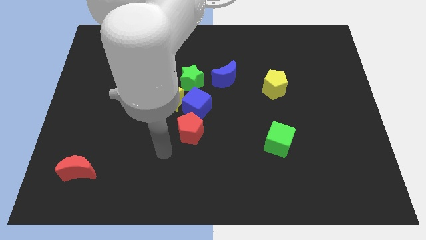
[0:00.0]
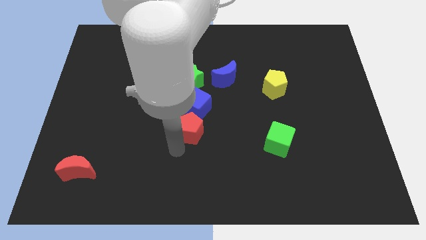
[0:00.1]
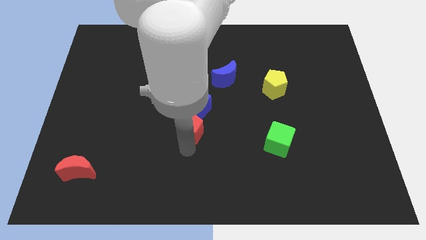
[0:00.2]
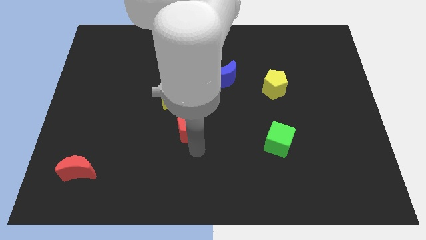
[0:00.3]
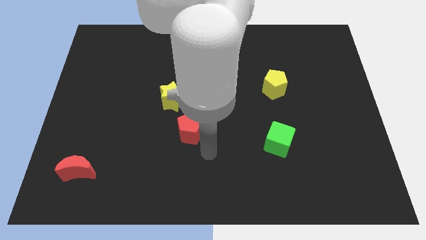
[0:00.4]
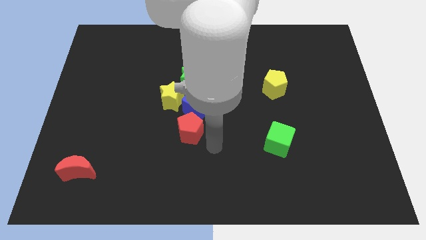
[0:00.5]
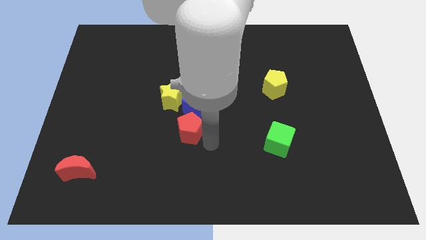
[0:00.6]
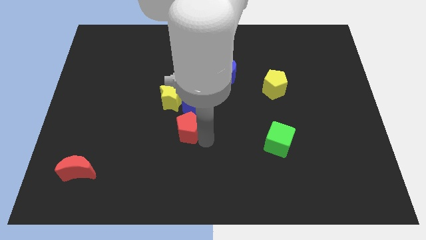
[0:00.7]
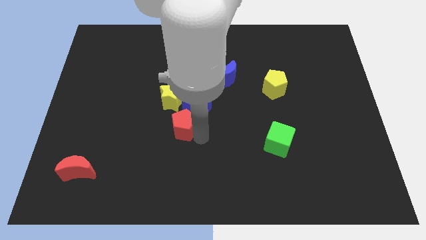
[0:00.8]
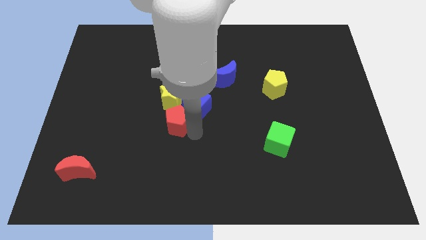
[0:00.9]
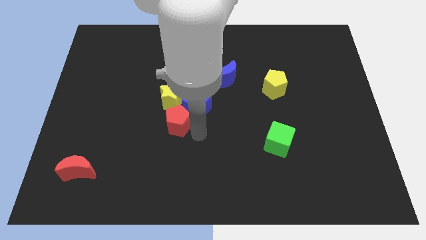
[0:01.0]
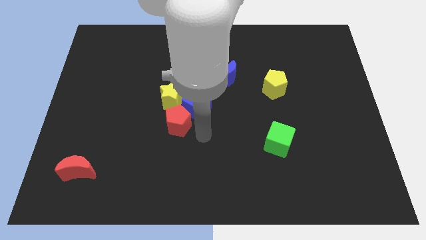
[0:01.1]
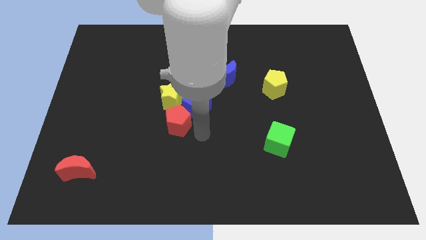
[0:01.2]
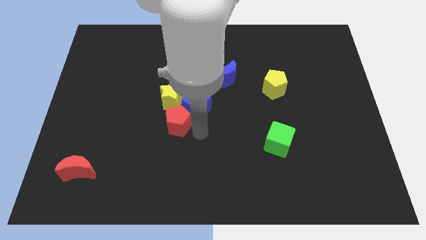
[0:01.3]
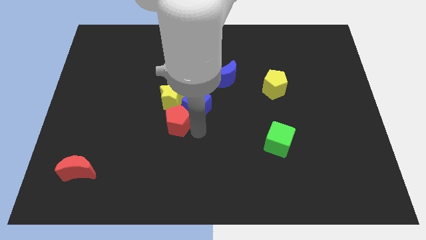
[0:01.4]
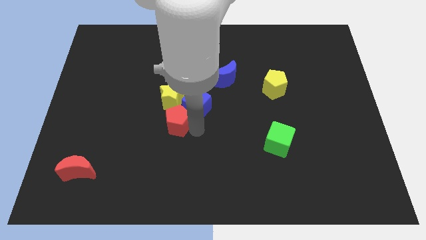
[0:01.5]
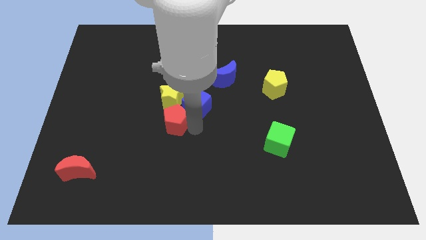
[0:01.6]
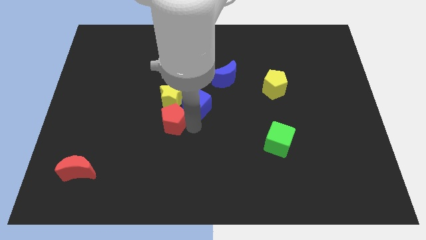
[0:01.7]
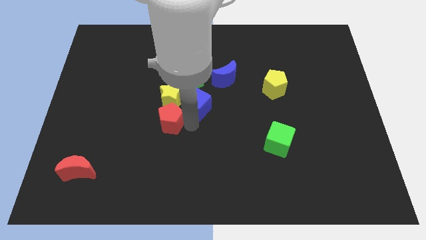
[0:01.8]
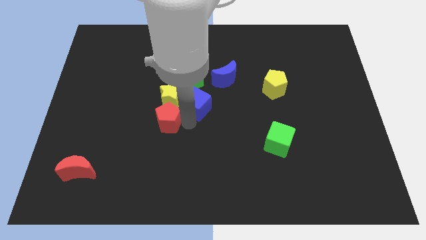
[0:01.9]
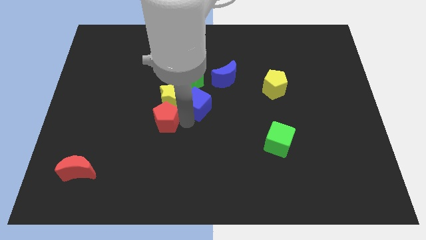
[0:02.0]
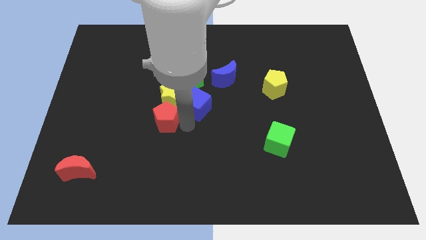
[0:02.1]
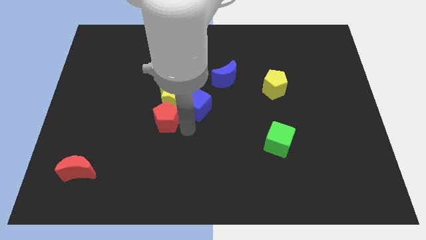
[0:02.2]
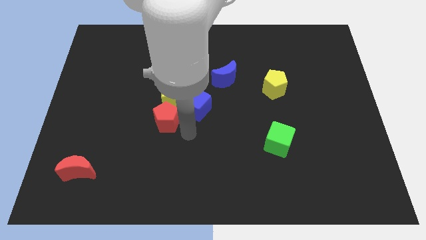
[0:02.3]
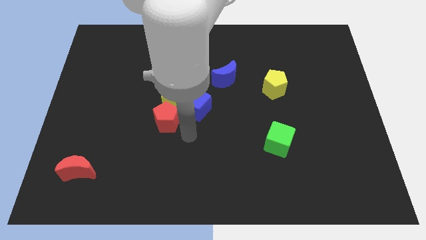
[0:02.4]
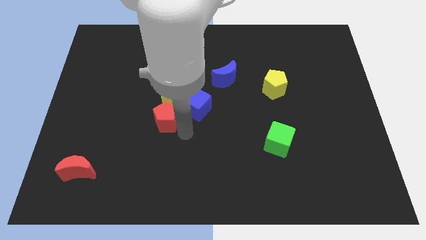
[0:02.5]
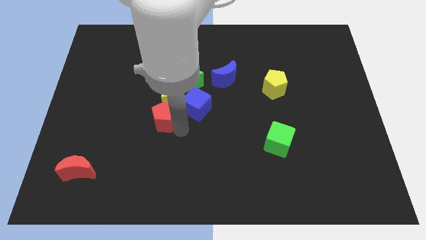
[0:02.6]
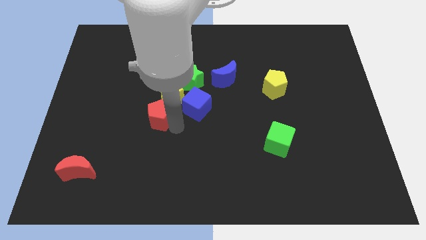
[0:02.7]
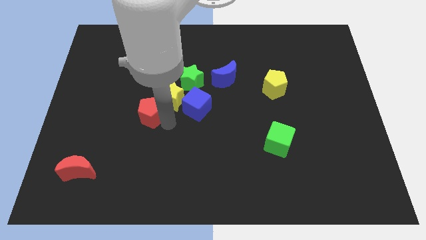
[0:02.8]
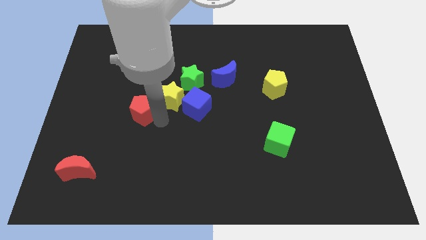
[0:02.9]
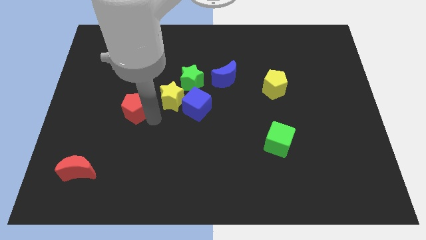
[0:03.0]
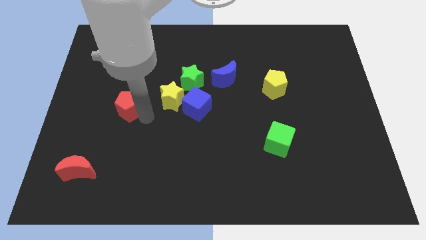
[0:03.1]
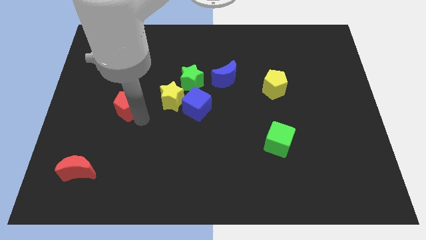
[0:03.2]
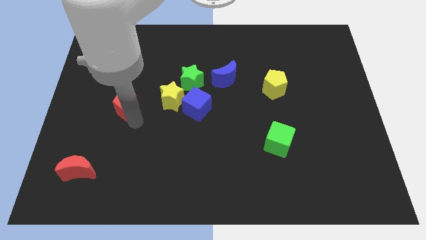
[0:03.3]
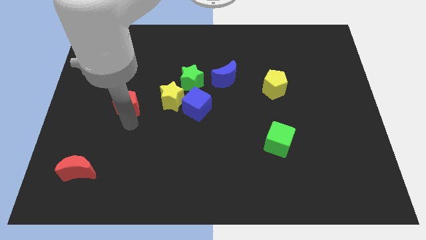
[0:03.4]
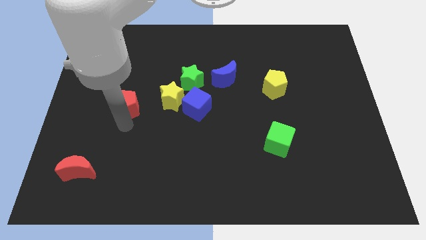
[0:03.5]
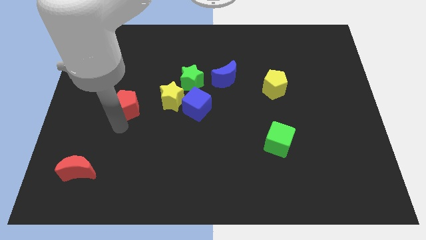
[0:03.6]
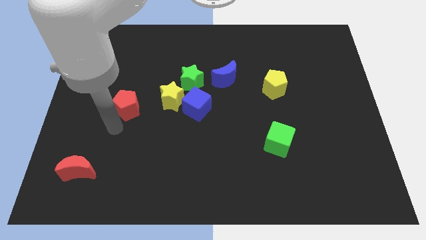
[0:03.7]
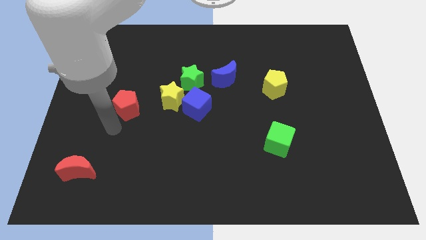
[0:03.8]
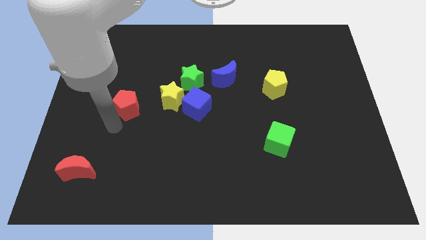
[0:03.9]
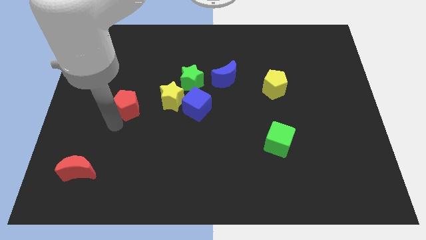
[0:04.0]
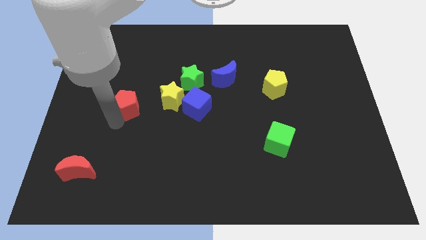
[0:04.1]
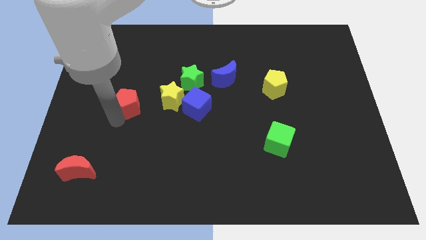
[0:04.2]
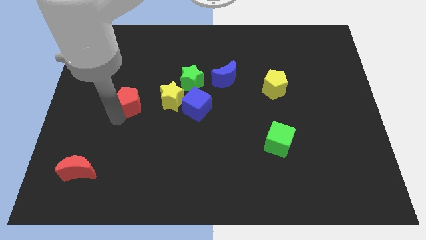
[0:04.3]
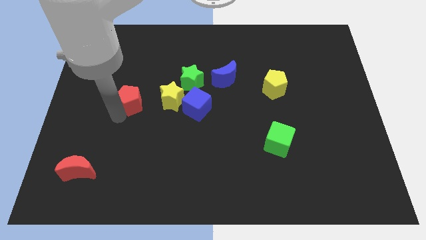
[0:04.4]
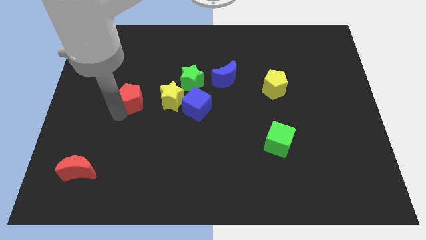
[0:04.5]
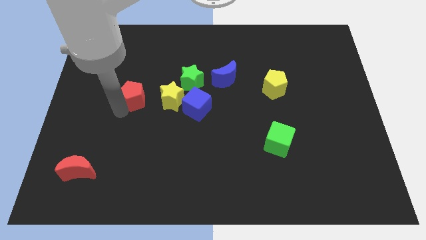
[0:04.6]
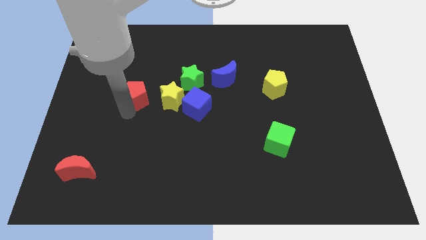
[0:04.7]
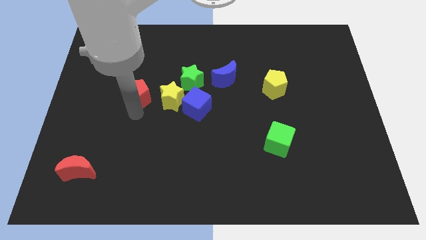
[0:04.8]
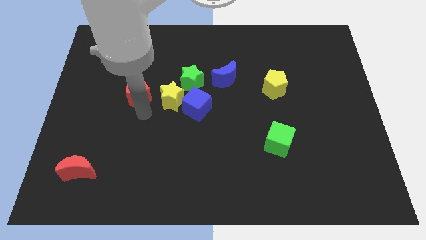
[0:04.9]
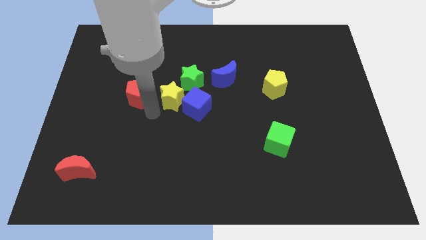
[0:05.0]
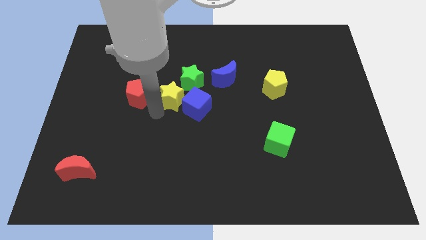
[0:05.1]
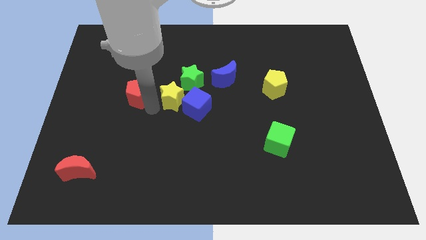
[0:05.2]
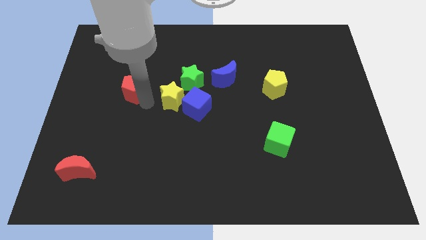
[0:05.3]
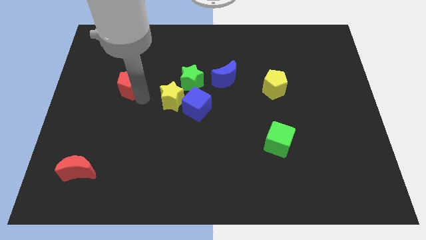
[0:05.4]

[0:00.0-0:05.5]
move the red pentagon upwards and then left

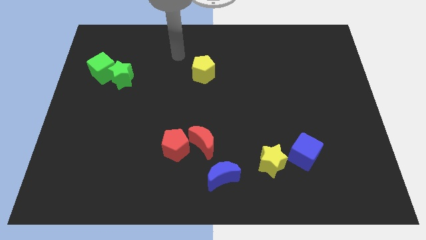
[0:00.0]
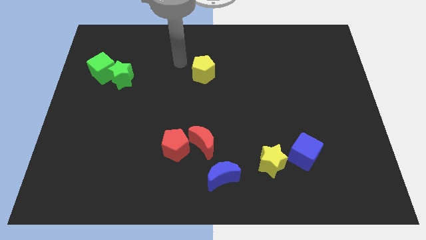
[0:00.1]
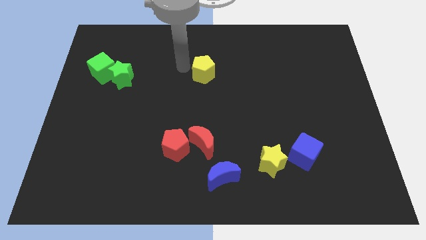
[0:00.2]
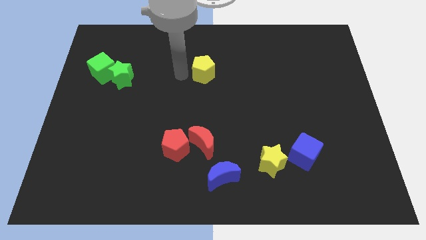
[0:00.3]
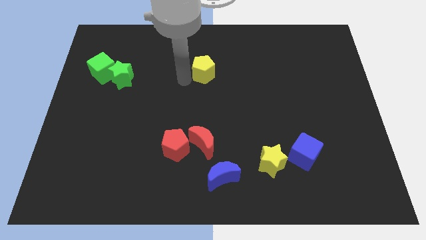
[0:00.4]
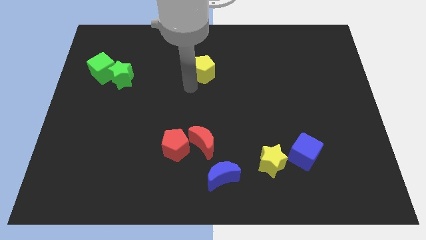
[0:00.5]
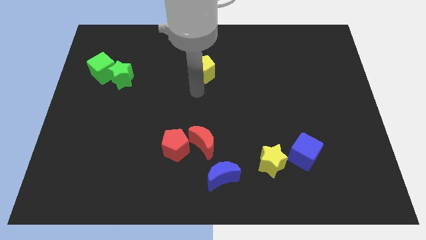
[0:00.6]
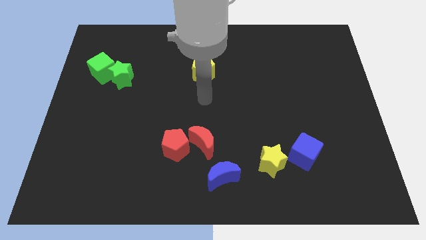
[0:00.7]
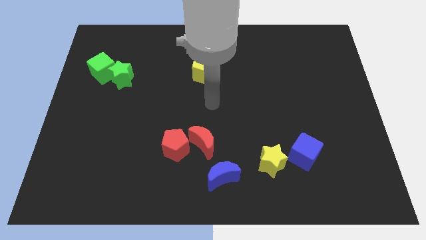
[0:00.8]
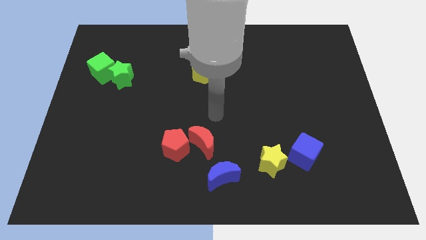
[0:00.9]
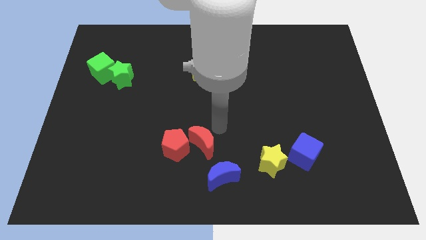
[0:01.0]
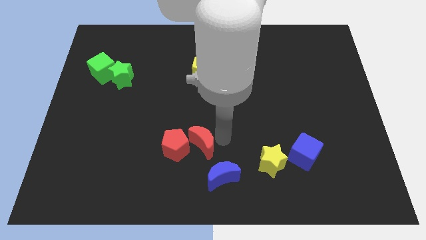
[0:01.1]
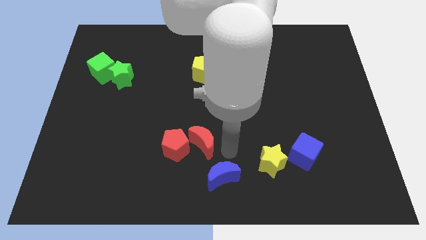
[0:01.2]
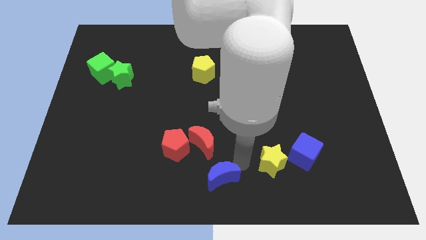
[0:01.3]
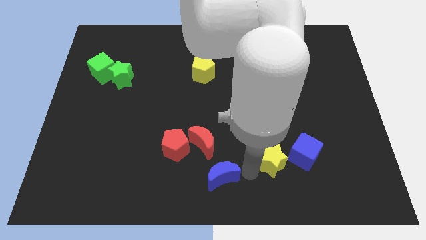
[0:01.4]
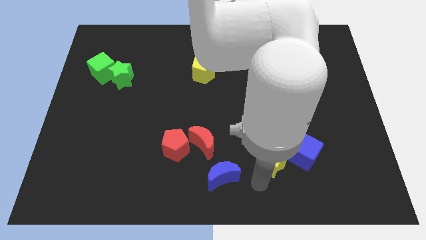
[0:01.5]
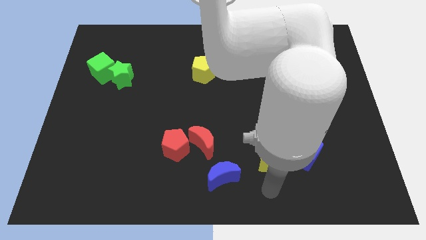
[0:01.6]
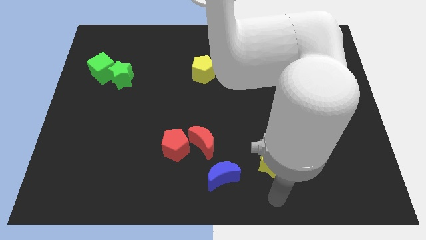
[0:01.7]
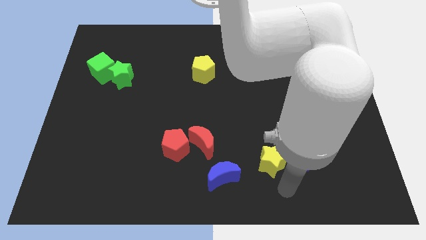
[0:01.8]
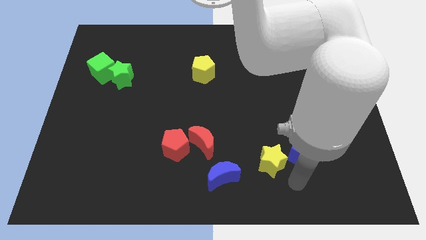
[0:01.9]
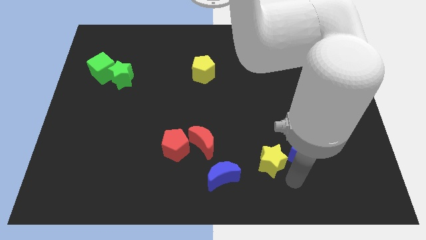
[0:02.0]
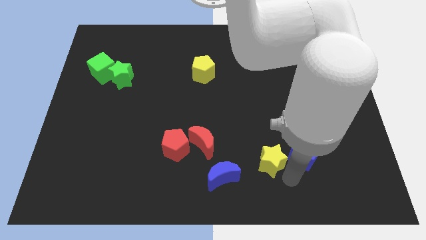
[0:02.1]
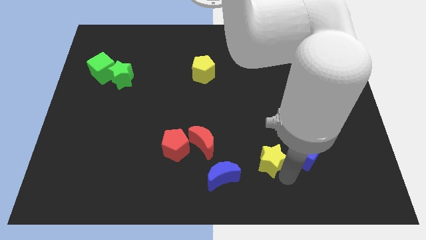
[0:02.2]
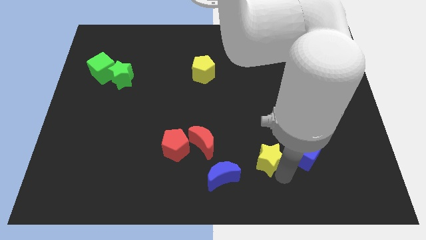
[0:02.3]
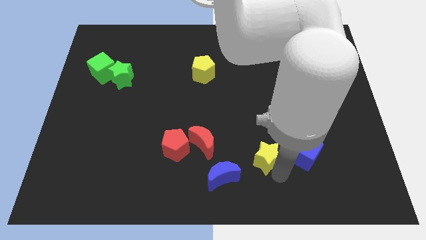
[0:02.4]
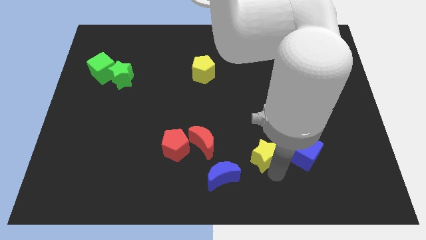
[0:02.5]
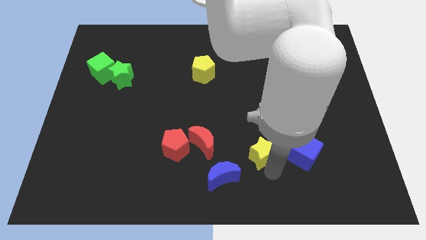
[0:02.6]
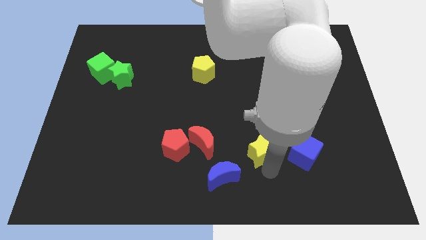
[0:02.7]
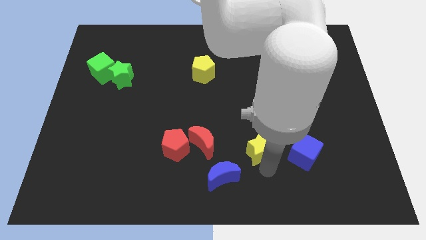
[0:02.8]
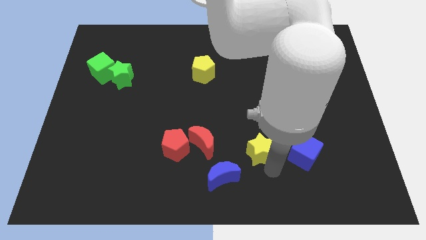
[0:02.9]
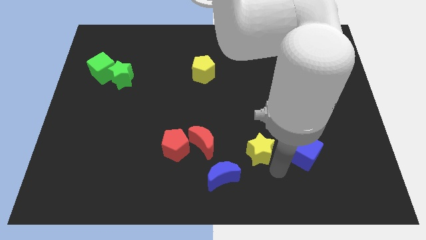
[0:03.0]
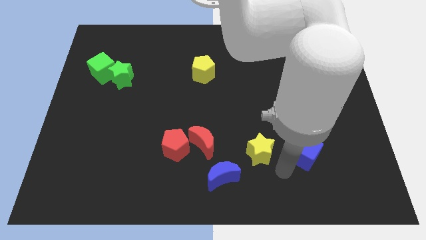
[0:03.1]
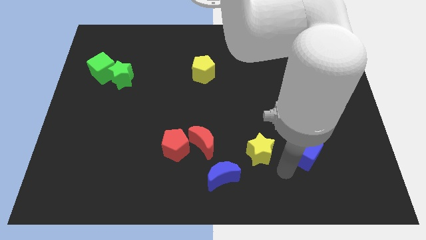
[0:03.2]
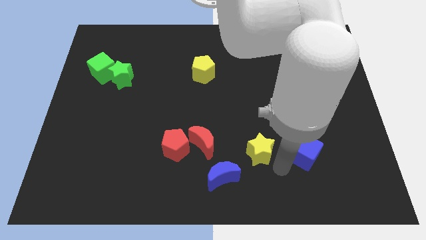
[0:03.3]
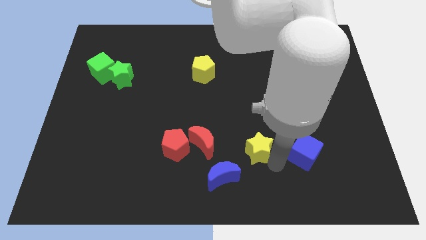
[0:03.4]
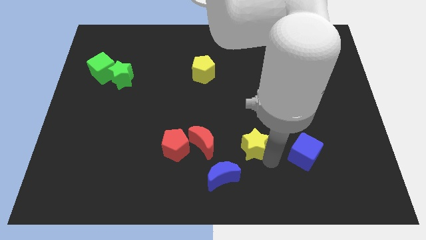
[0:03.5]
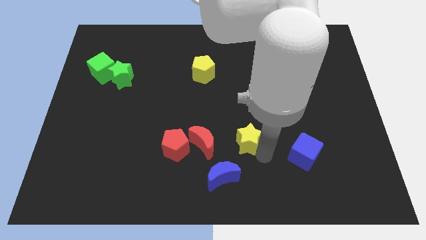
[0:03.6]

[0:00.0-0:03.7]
slide the yellow star somewhat up and to the left
